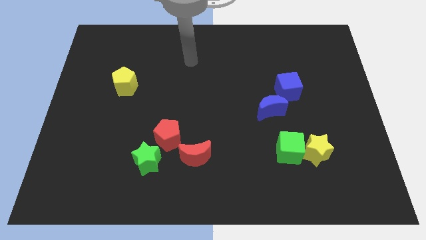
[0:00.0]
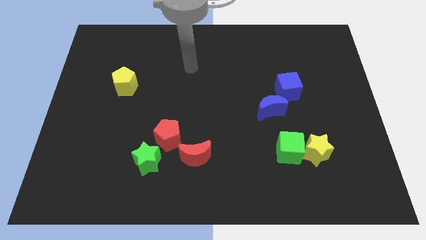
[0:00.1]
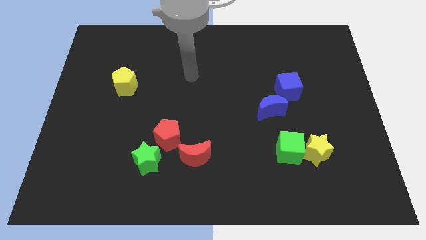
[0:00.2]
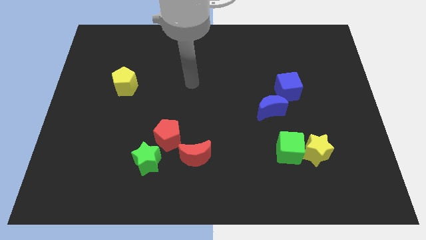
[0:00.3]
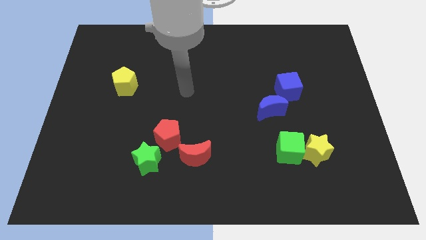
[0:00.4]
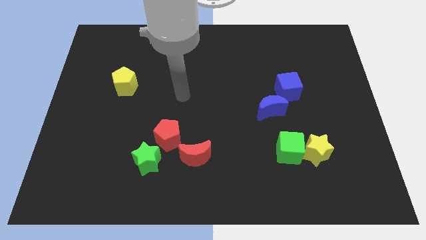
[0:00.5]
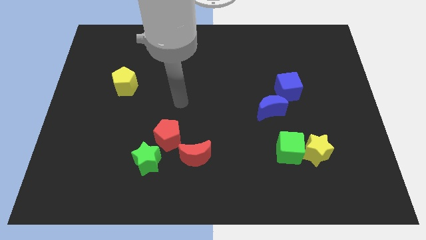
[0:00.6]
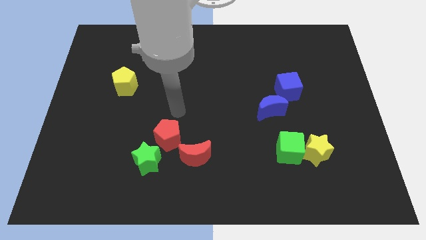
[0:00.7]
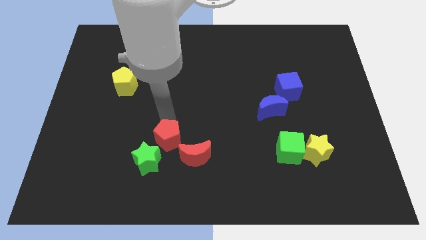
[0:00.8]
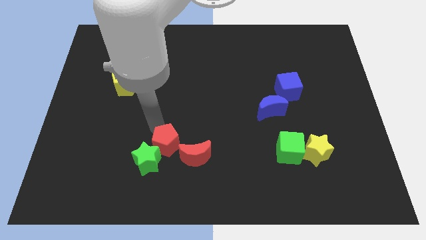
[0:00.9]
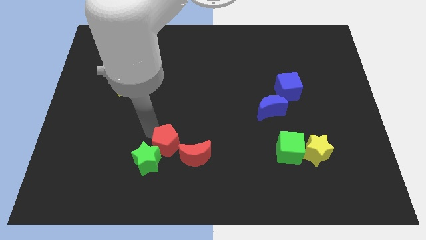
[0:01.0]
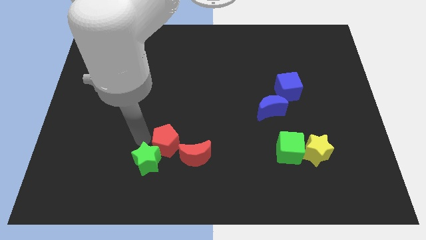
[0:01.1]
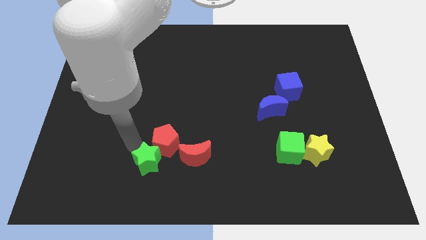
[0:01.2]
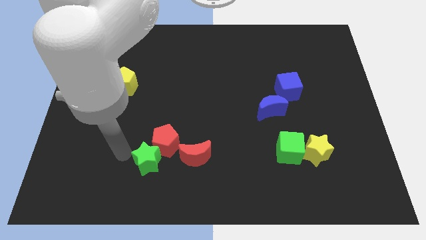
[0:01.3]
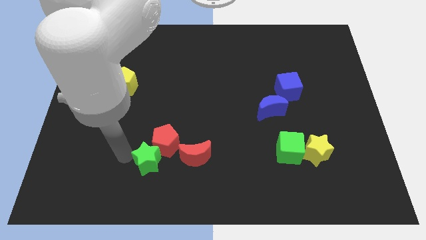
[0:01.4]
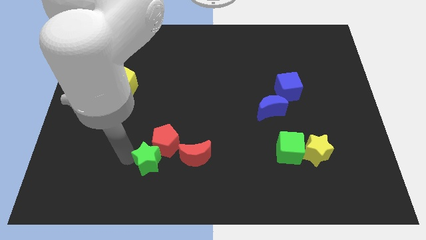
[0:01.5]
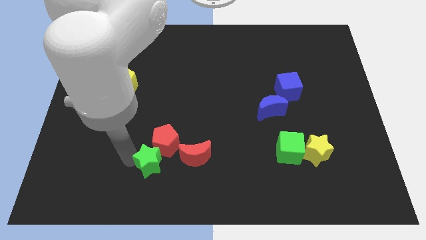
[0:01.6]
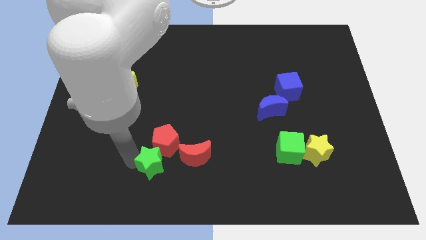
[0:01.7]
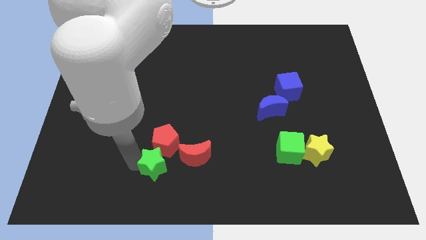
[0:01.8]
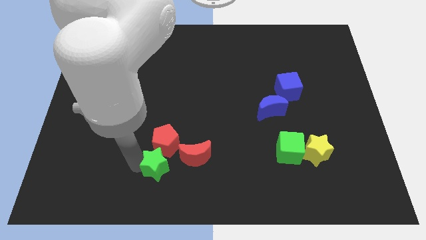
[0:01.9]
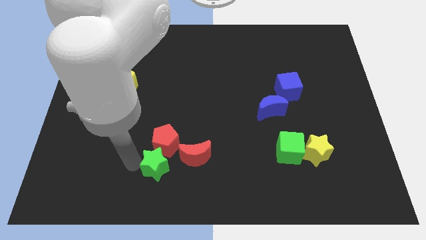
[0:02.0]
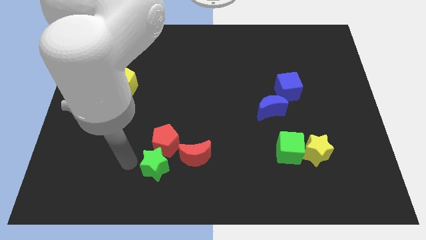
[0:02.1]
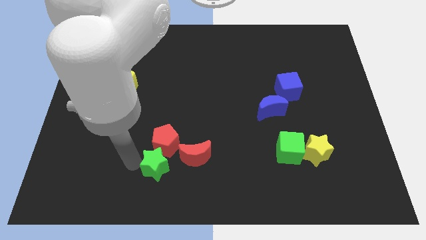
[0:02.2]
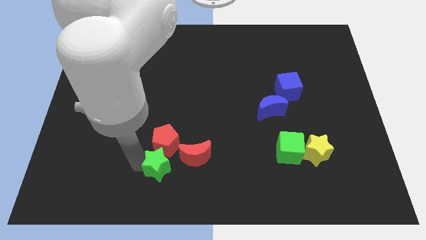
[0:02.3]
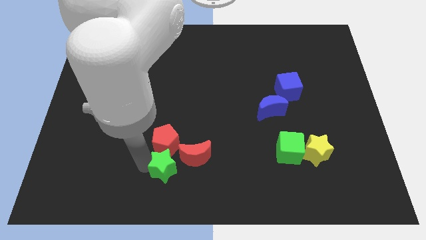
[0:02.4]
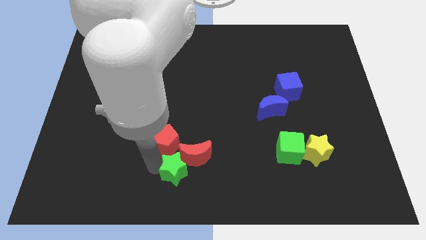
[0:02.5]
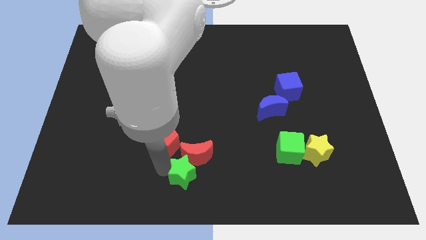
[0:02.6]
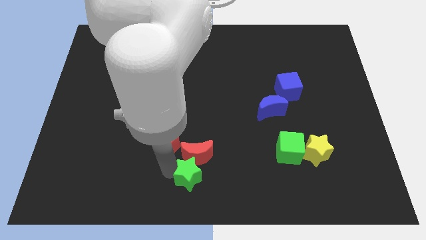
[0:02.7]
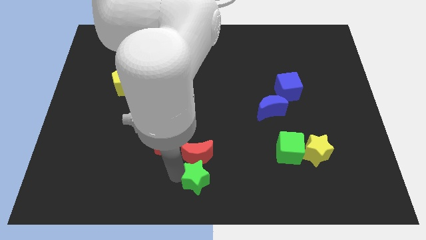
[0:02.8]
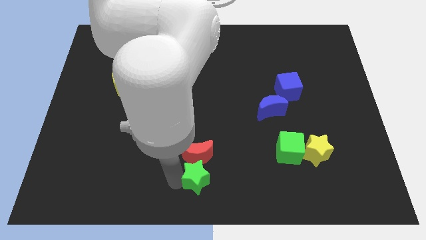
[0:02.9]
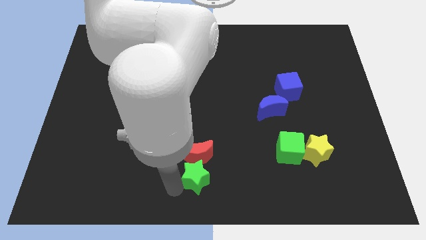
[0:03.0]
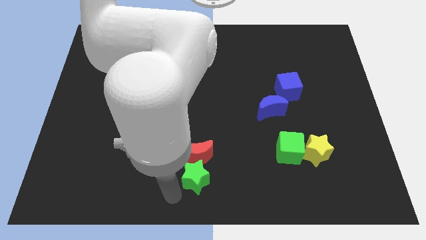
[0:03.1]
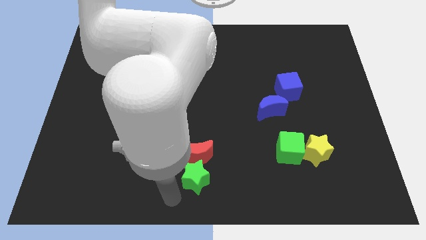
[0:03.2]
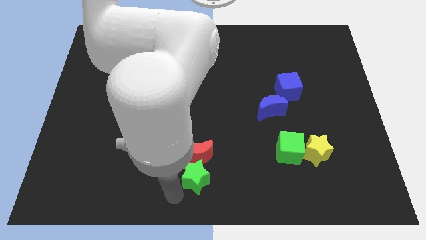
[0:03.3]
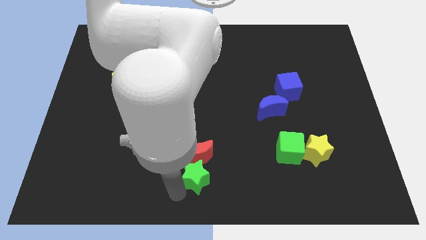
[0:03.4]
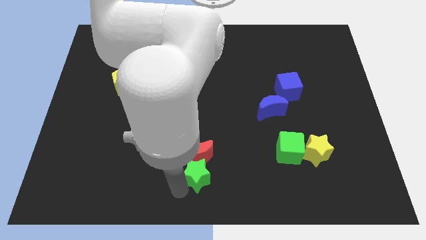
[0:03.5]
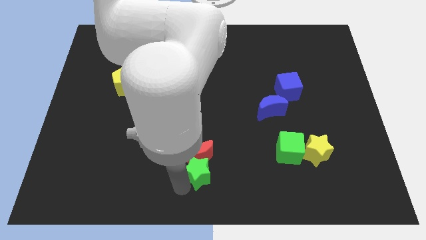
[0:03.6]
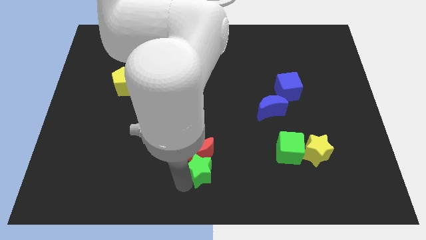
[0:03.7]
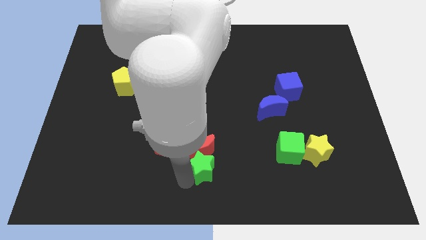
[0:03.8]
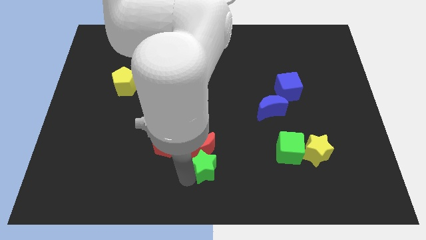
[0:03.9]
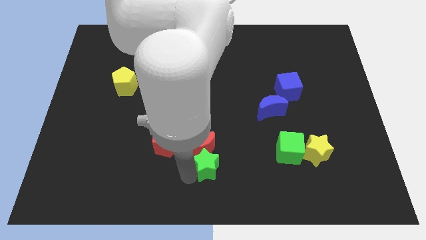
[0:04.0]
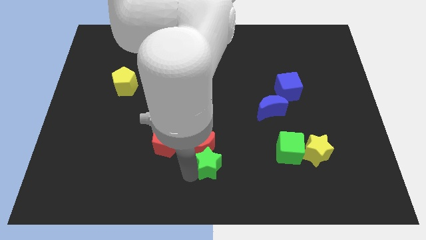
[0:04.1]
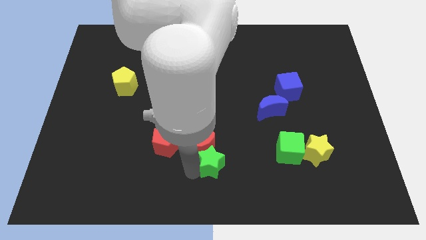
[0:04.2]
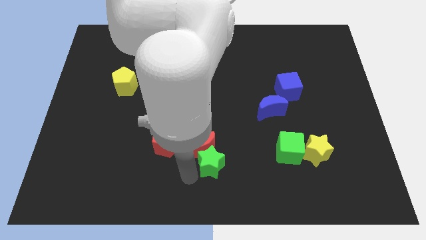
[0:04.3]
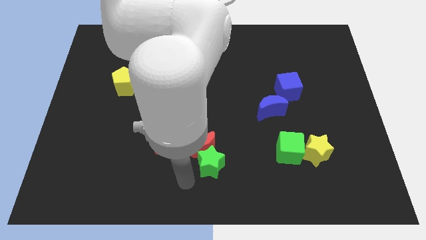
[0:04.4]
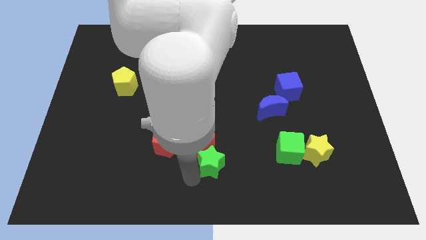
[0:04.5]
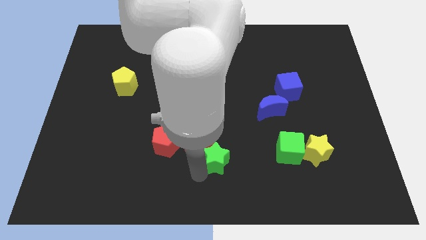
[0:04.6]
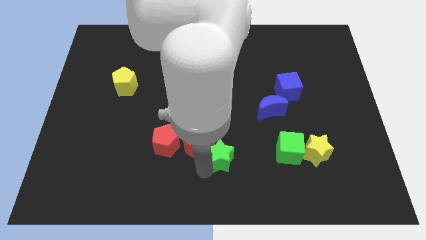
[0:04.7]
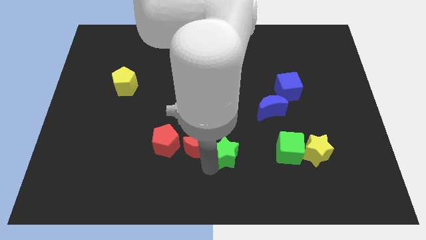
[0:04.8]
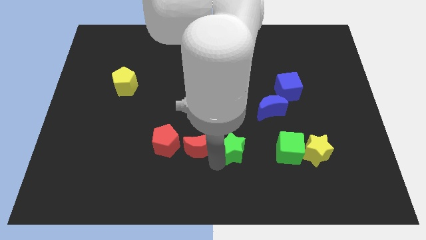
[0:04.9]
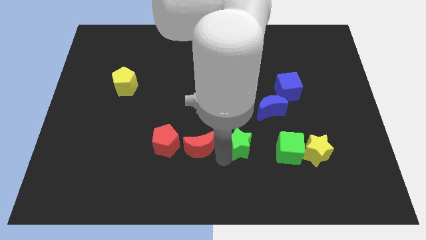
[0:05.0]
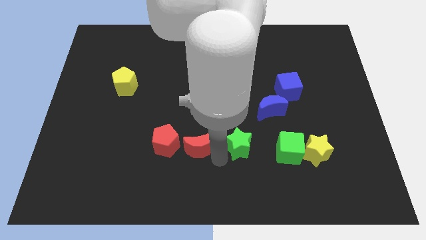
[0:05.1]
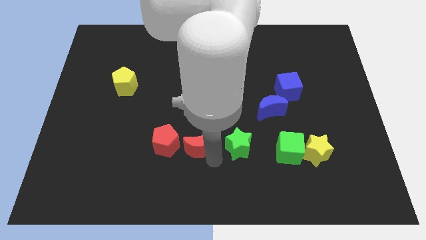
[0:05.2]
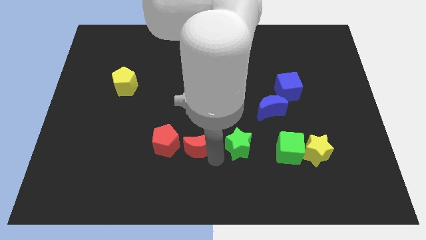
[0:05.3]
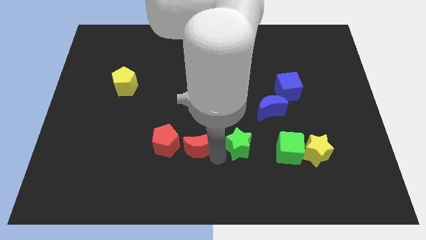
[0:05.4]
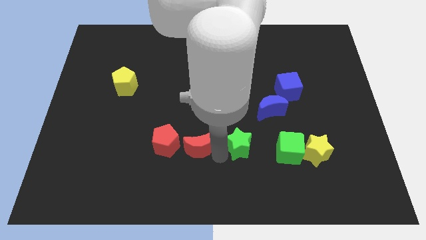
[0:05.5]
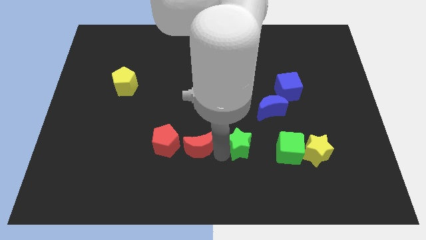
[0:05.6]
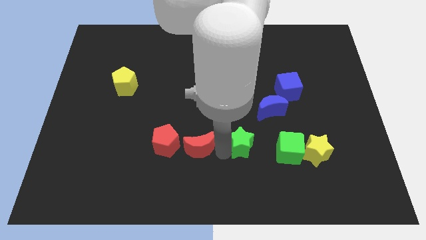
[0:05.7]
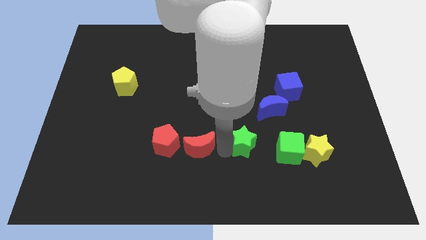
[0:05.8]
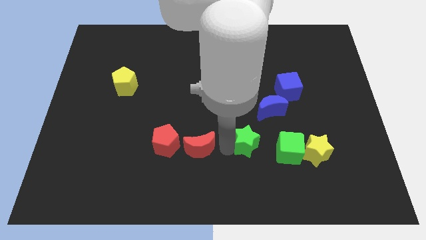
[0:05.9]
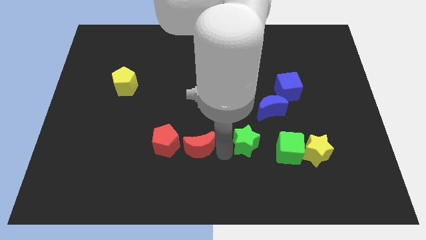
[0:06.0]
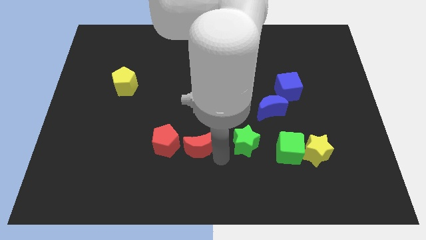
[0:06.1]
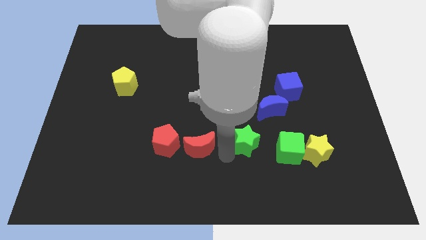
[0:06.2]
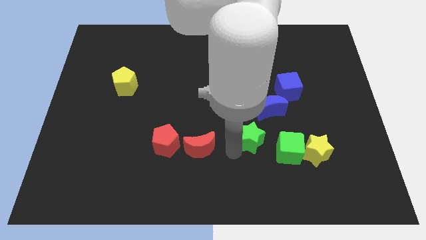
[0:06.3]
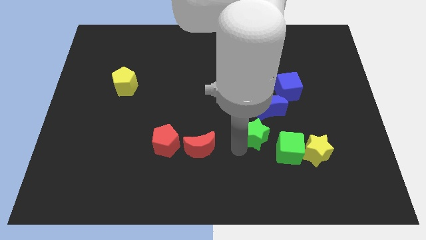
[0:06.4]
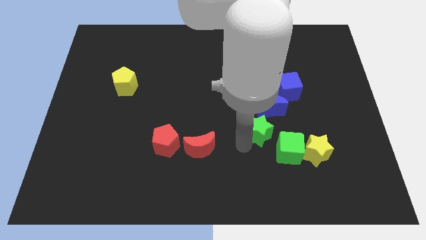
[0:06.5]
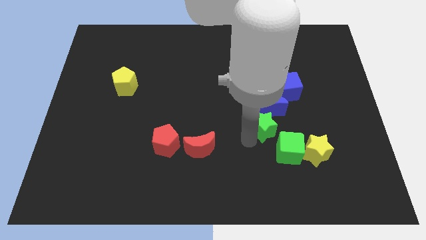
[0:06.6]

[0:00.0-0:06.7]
push the green star diagonally up and to the left of the yellow star

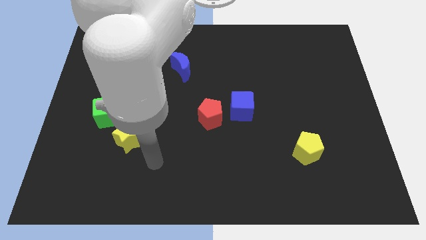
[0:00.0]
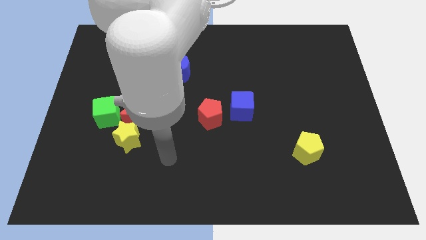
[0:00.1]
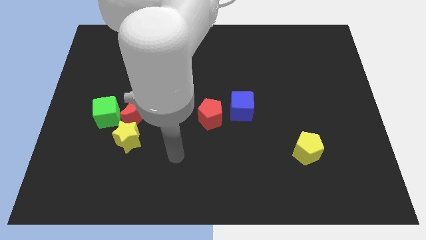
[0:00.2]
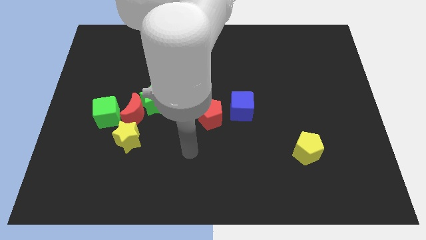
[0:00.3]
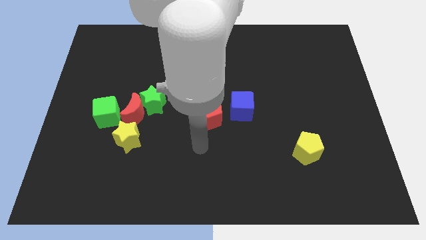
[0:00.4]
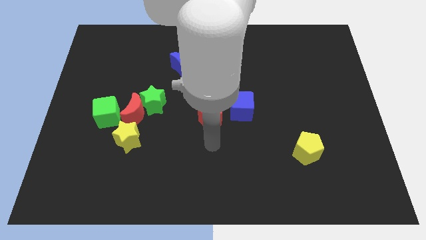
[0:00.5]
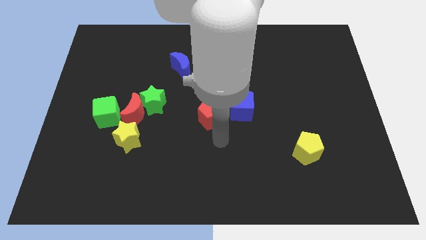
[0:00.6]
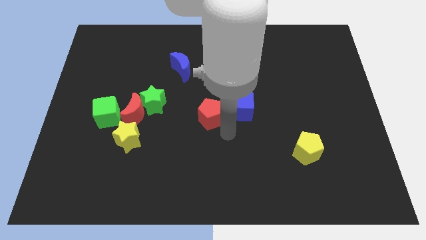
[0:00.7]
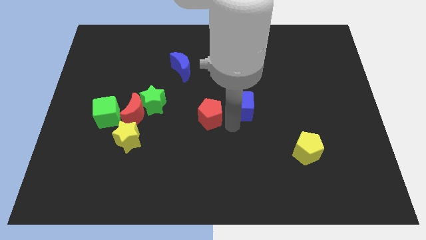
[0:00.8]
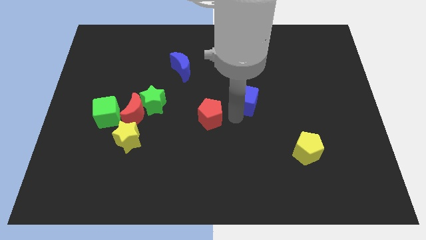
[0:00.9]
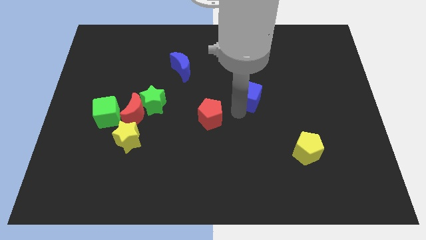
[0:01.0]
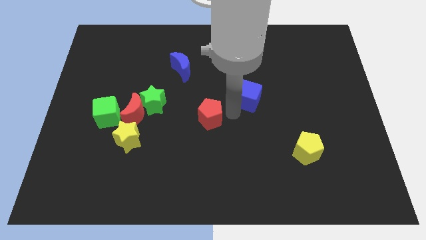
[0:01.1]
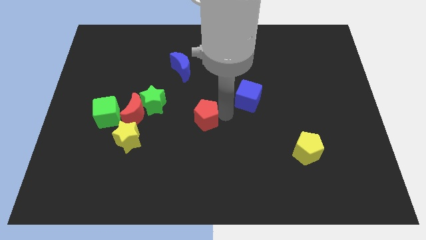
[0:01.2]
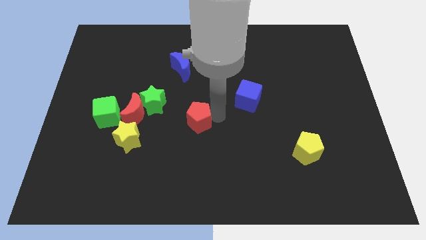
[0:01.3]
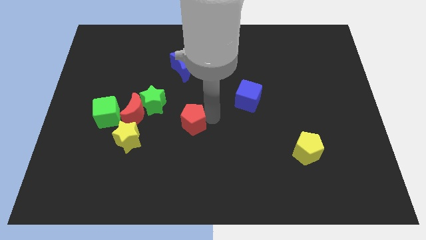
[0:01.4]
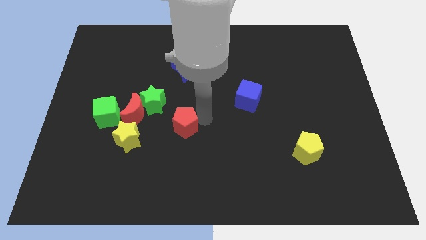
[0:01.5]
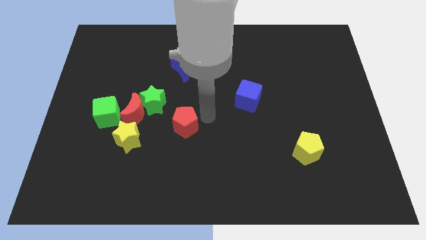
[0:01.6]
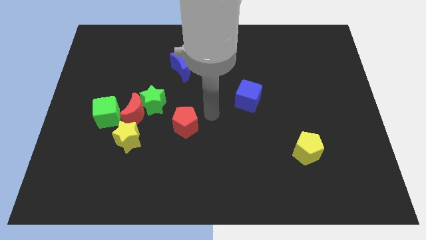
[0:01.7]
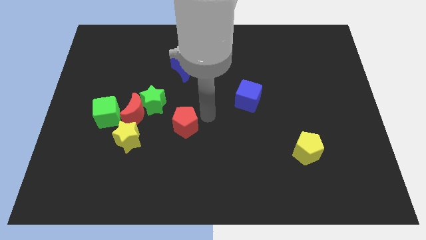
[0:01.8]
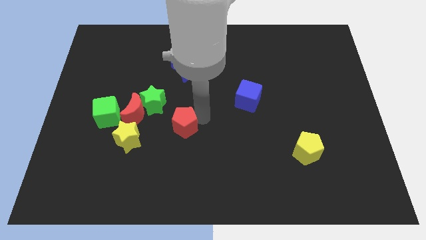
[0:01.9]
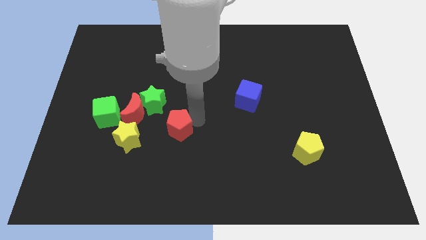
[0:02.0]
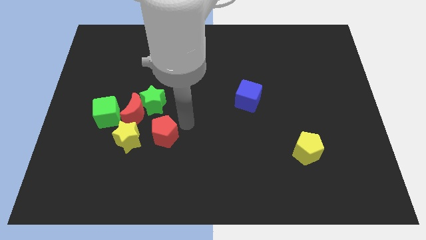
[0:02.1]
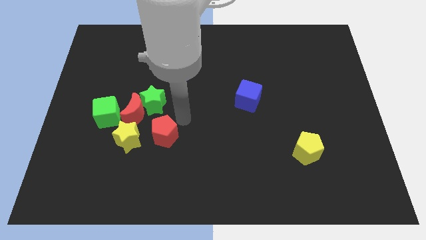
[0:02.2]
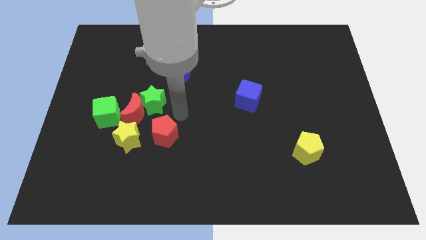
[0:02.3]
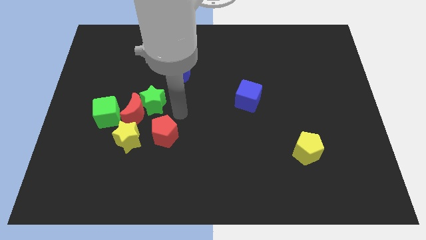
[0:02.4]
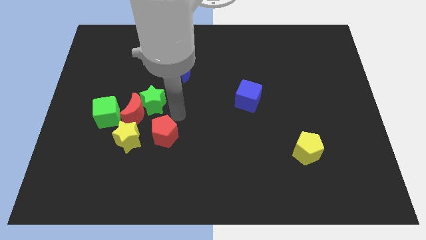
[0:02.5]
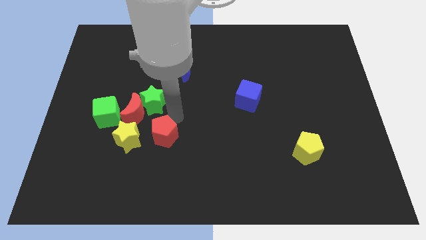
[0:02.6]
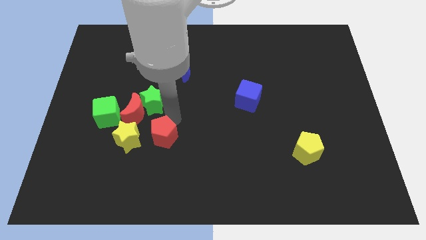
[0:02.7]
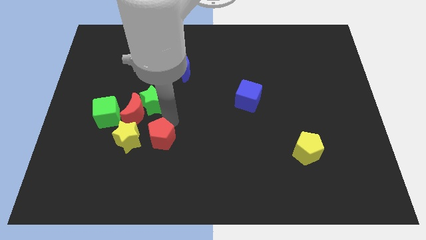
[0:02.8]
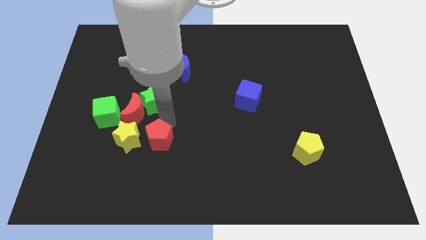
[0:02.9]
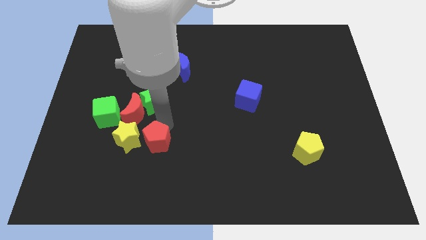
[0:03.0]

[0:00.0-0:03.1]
move the red pentagon to the bottom right side of the yellow star
